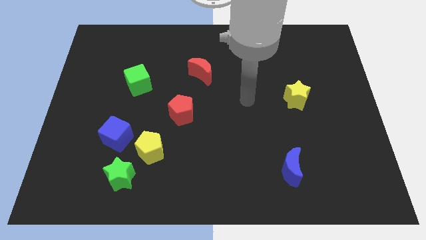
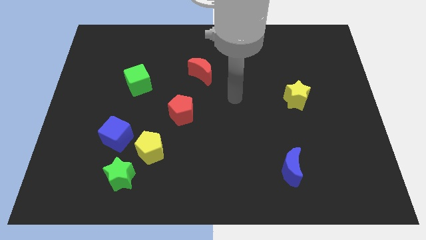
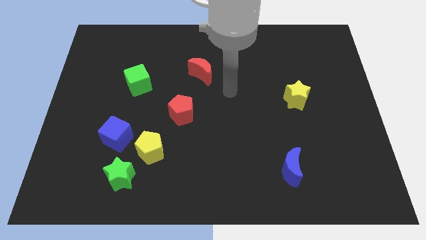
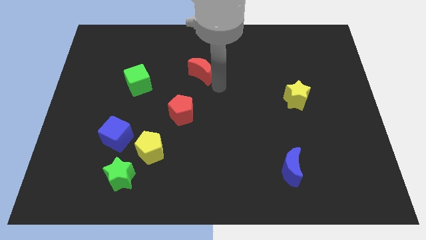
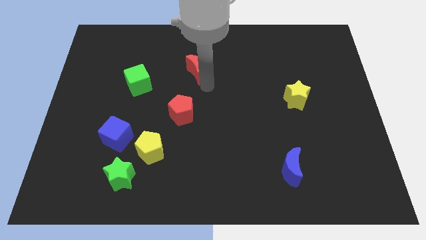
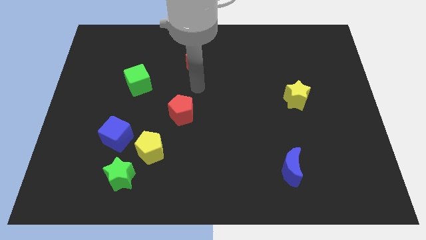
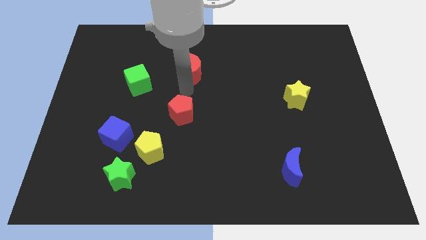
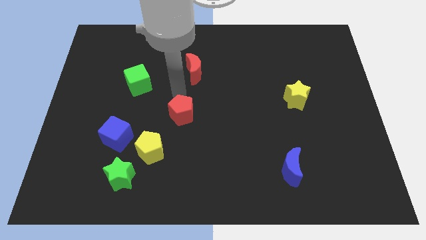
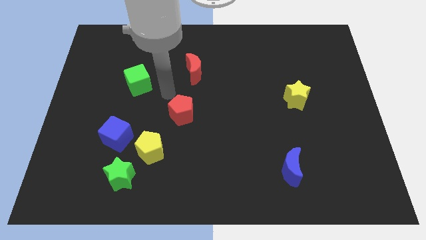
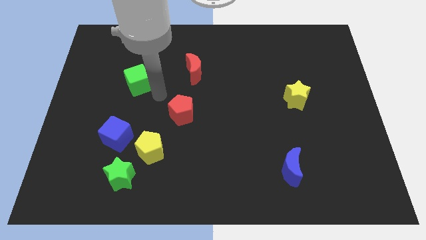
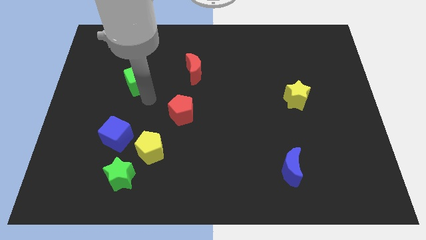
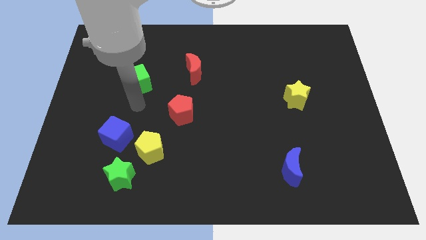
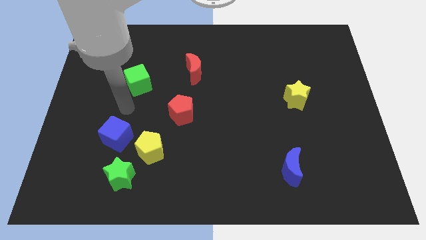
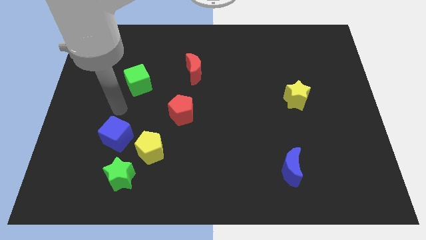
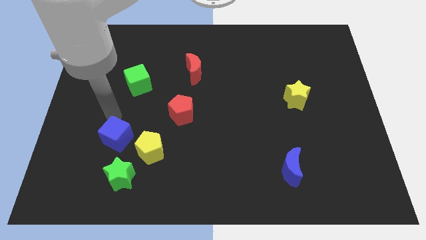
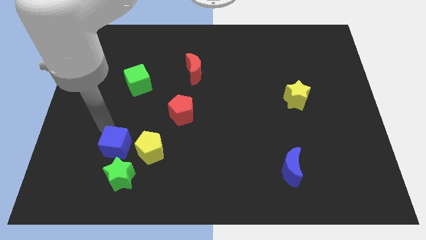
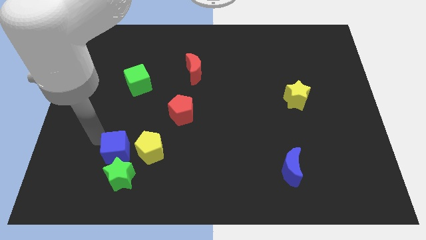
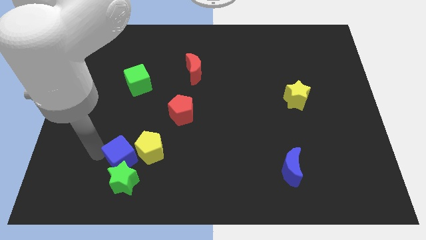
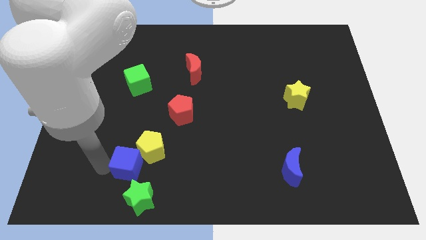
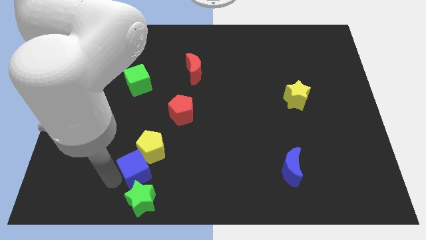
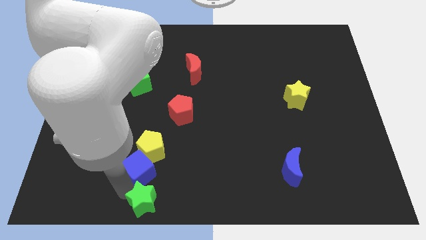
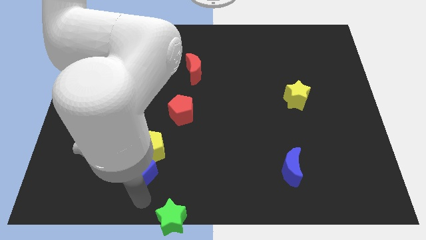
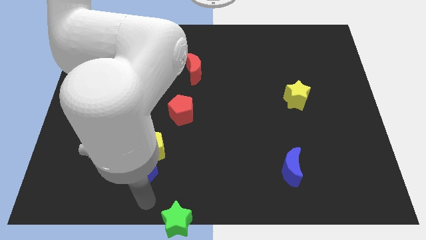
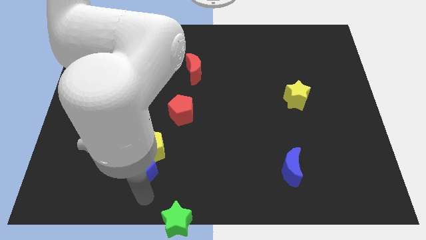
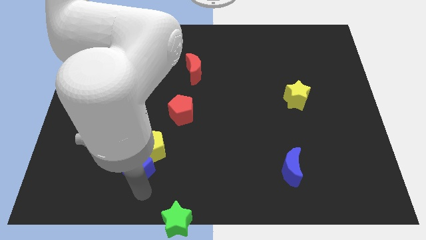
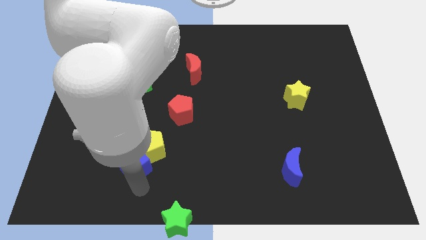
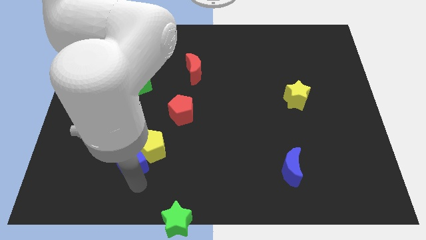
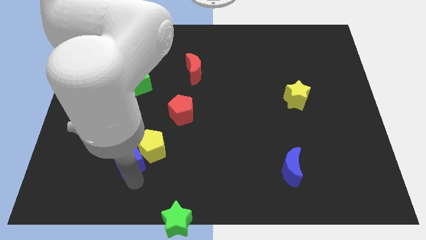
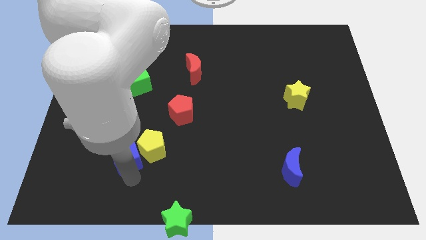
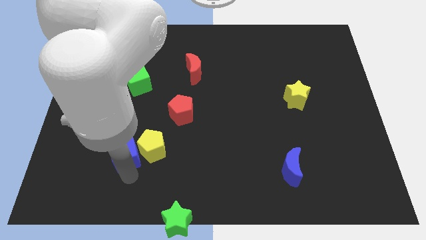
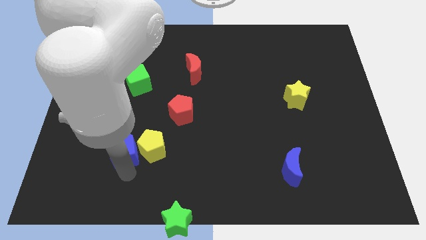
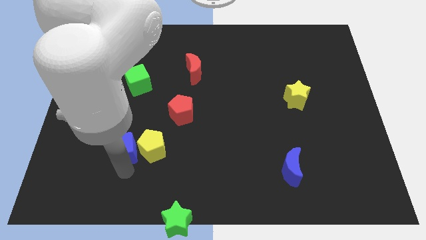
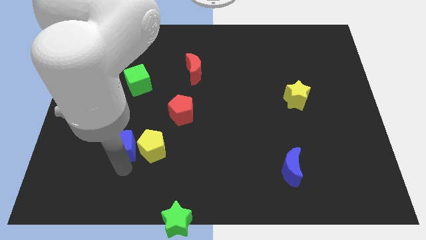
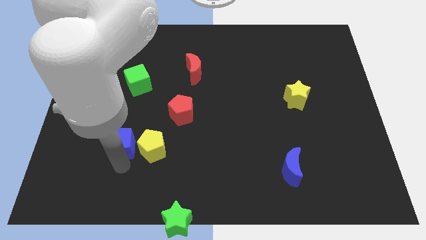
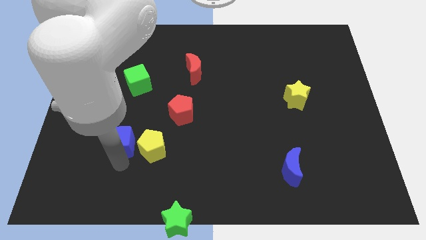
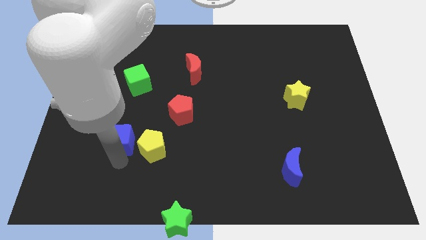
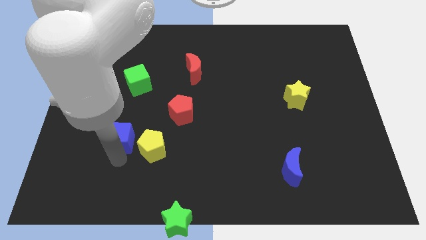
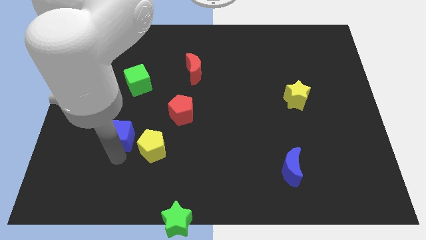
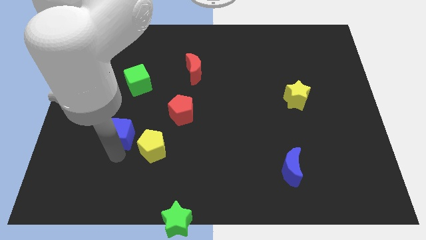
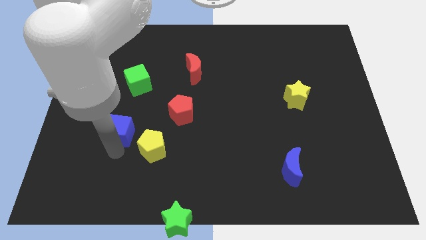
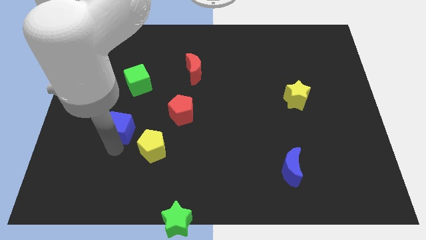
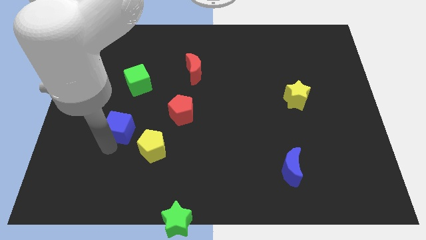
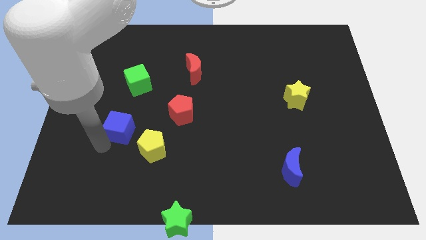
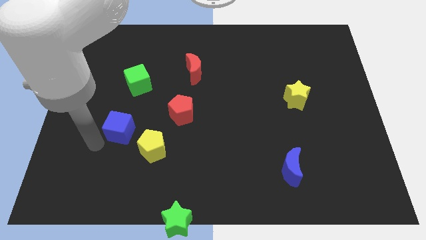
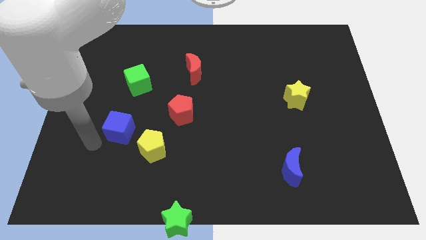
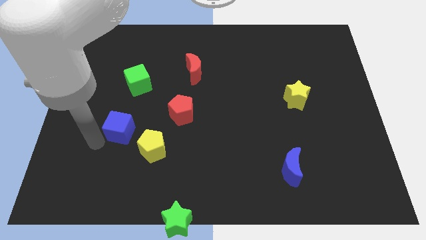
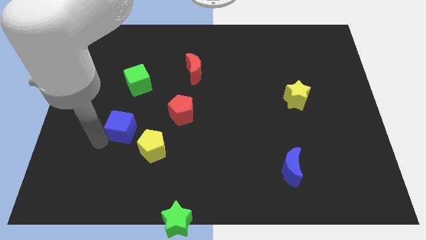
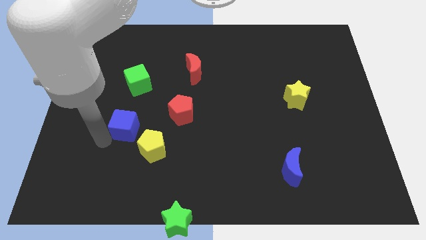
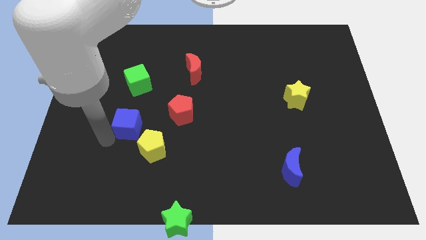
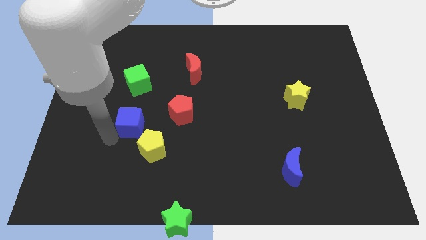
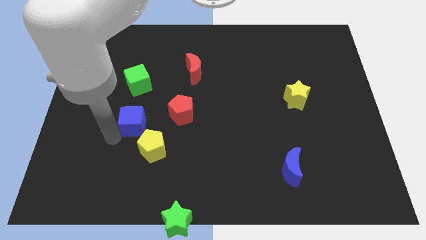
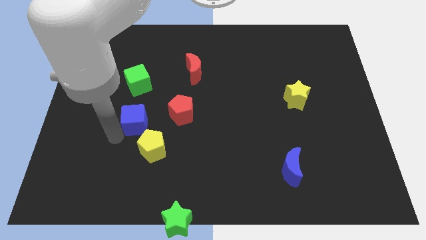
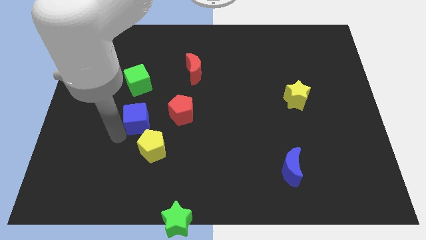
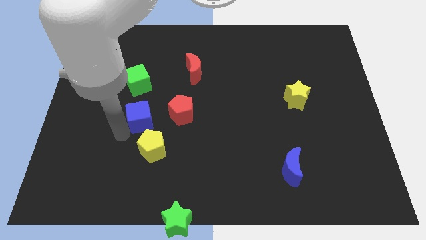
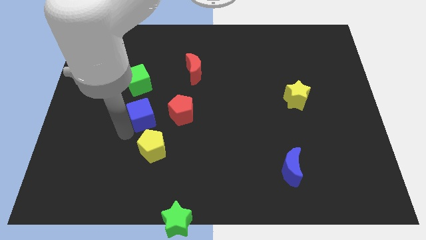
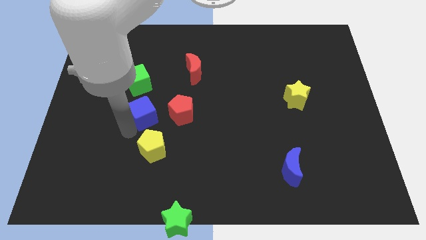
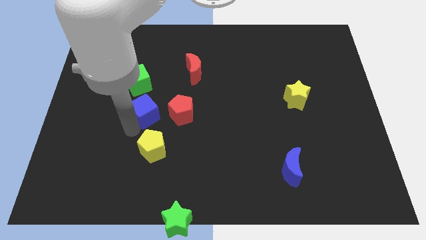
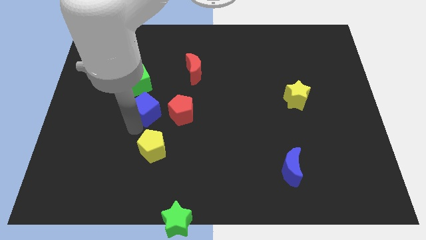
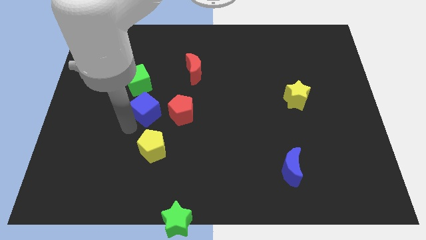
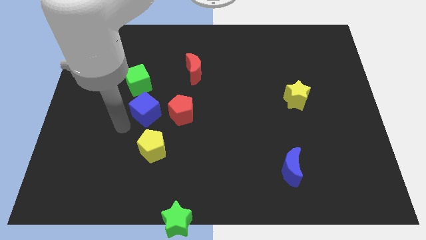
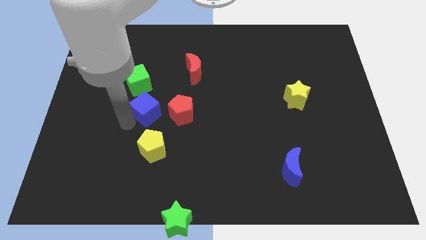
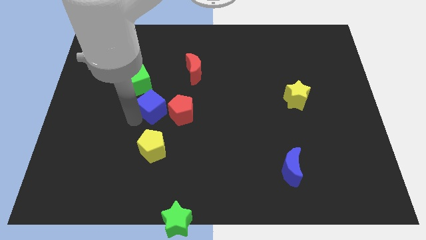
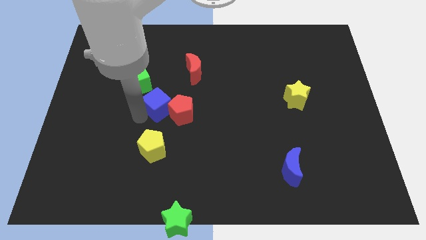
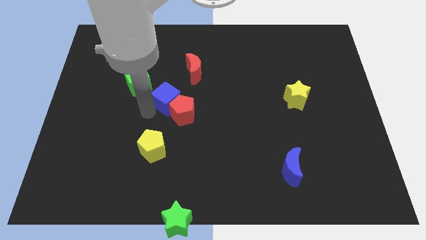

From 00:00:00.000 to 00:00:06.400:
push the blue cube to the center
